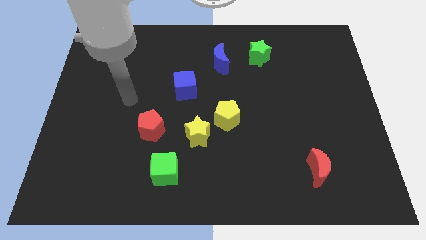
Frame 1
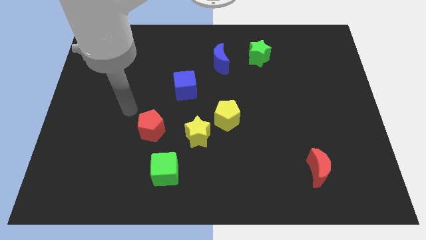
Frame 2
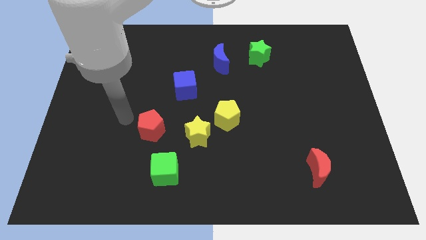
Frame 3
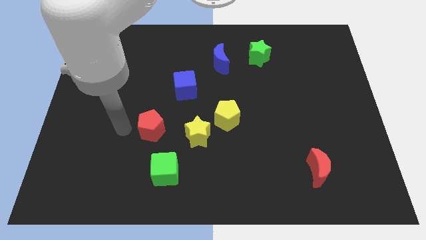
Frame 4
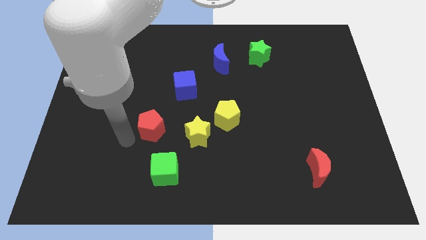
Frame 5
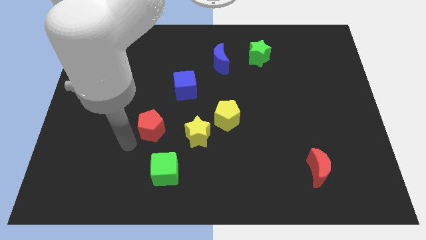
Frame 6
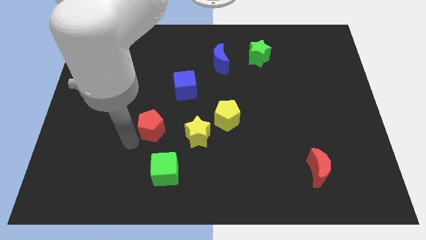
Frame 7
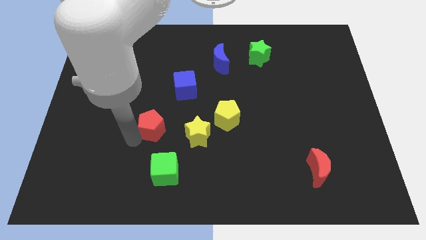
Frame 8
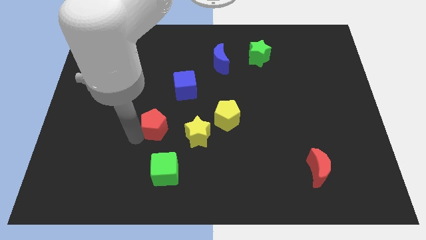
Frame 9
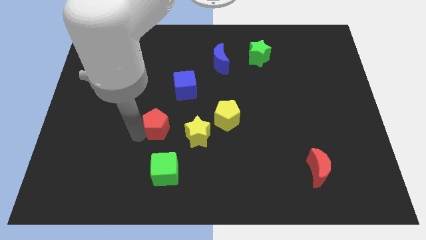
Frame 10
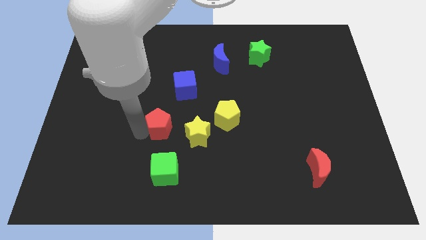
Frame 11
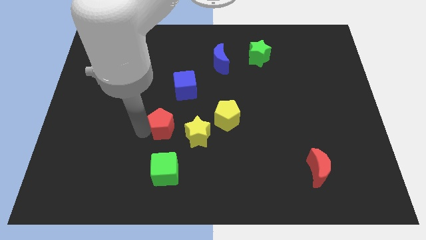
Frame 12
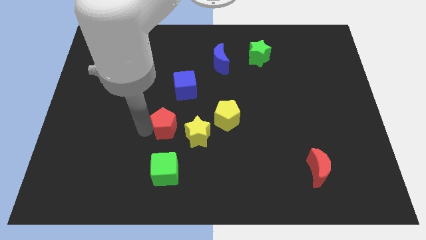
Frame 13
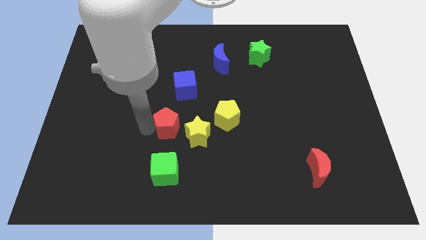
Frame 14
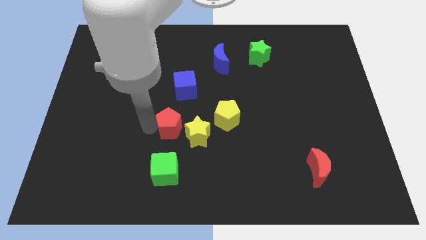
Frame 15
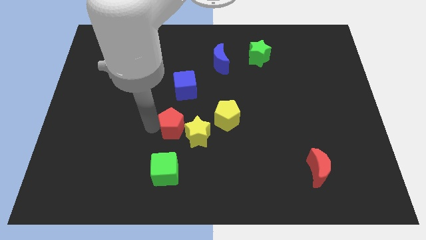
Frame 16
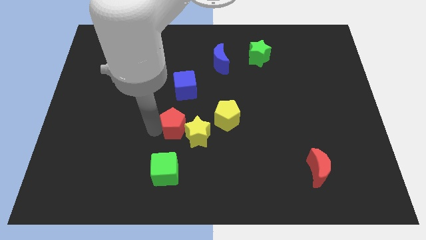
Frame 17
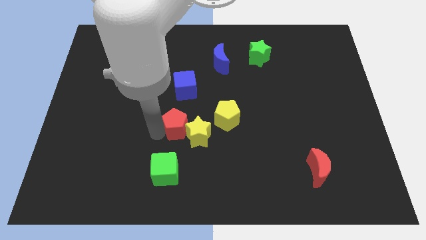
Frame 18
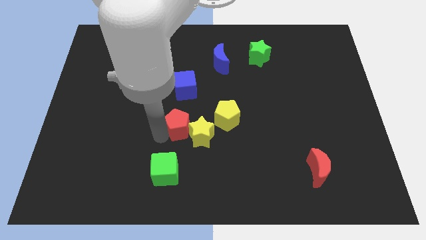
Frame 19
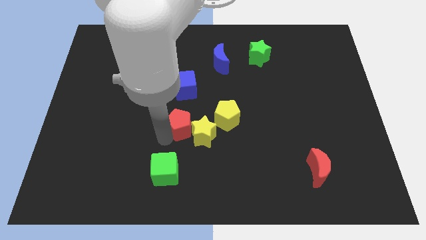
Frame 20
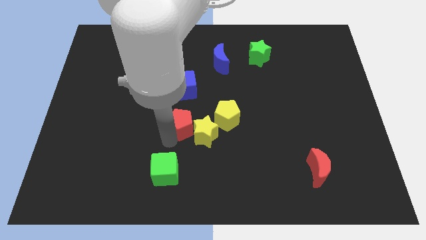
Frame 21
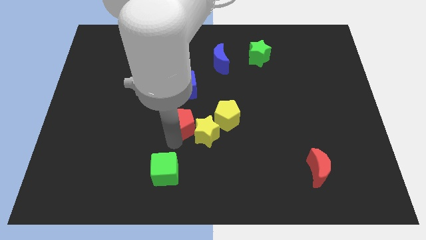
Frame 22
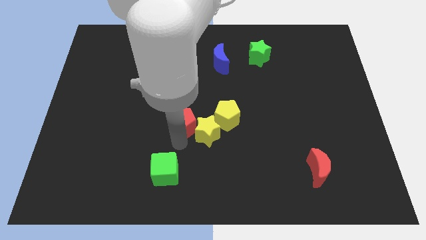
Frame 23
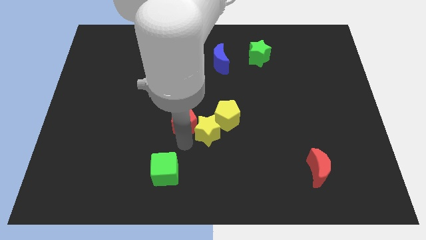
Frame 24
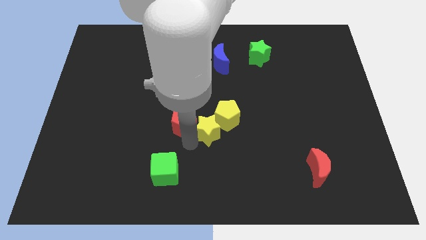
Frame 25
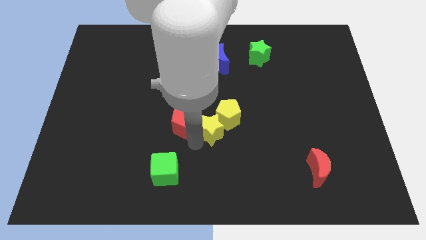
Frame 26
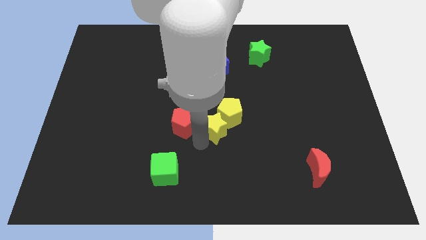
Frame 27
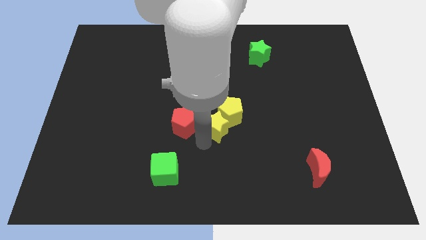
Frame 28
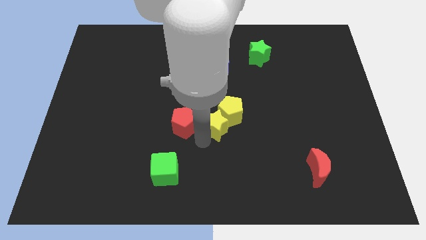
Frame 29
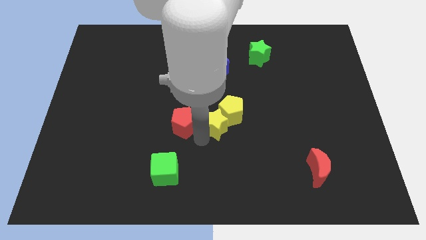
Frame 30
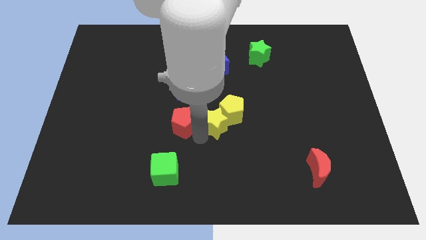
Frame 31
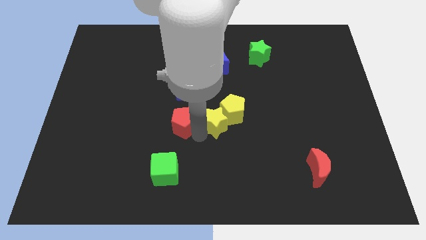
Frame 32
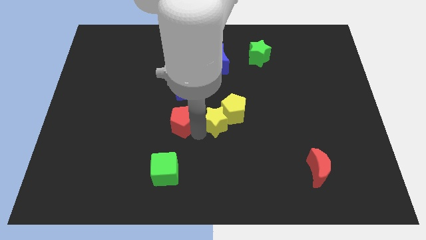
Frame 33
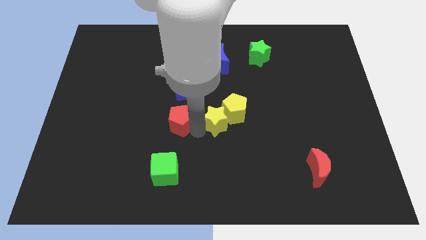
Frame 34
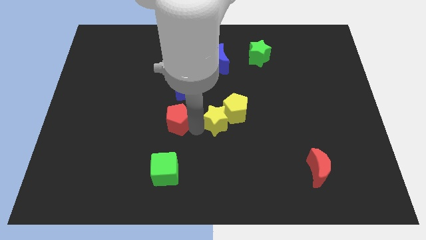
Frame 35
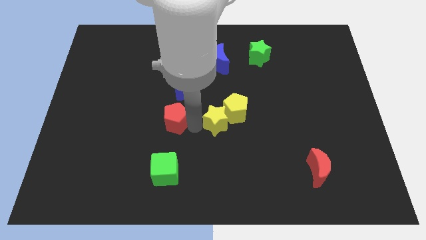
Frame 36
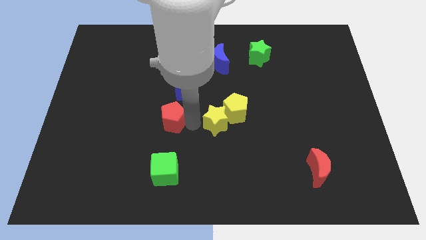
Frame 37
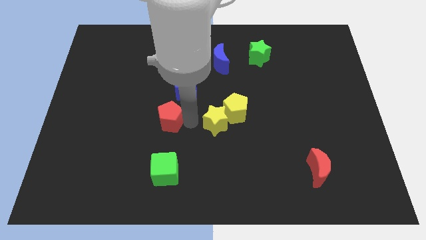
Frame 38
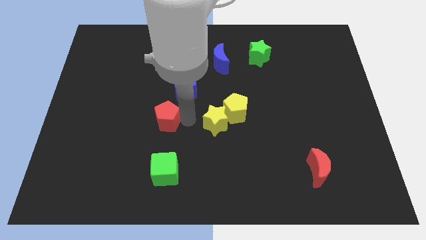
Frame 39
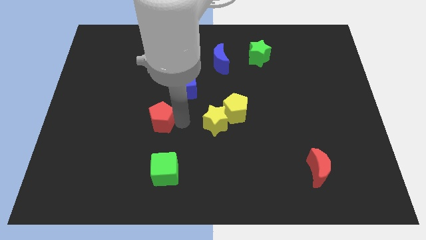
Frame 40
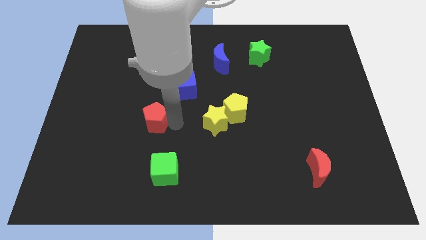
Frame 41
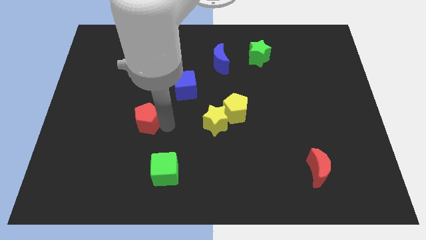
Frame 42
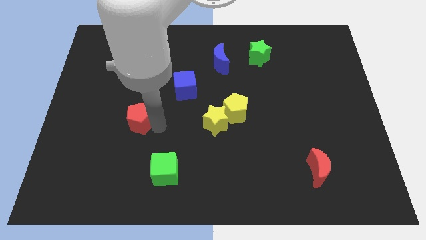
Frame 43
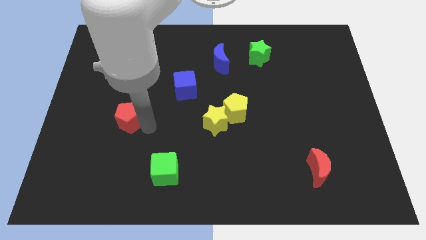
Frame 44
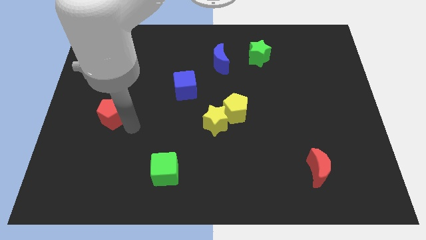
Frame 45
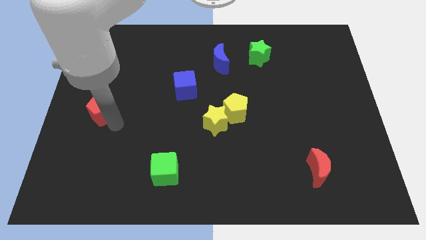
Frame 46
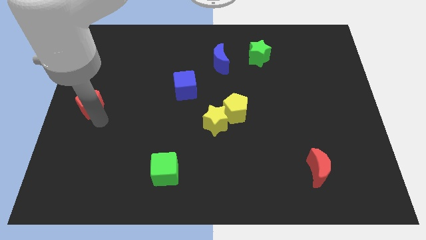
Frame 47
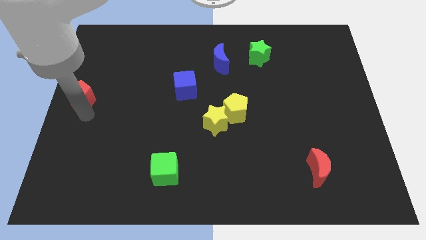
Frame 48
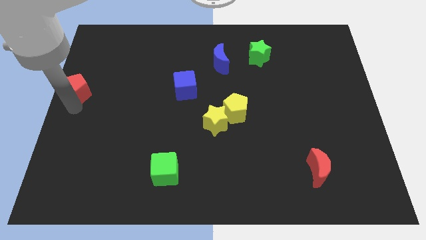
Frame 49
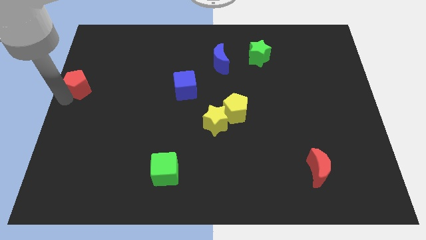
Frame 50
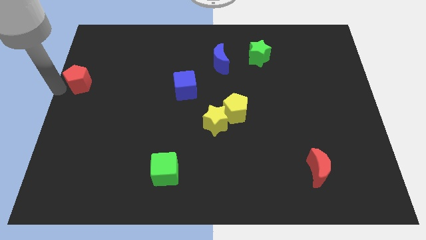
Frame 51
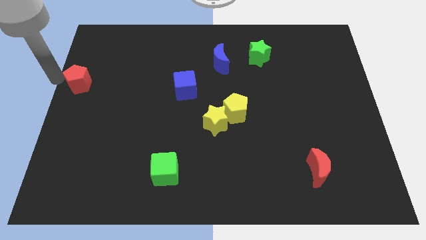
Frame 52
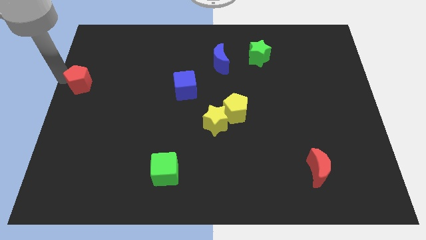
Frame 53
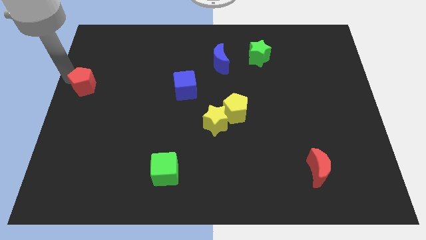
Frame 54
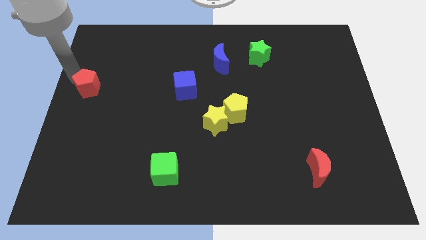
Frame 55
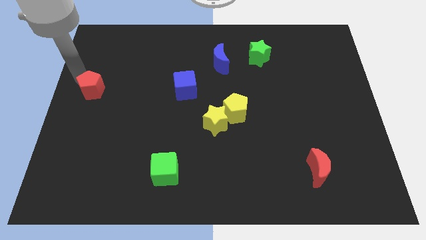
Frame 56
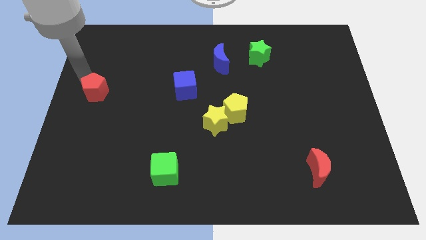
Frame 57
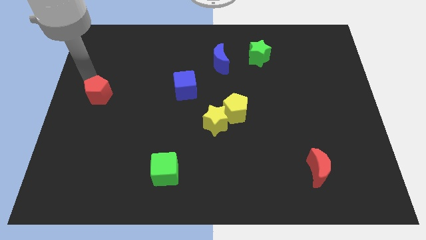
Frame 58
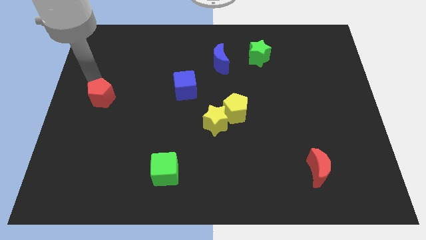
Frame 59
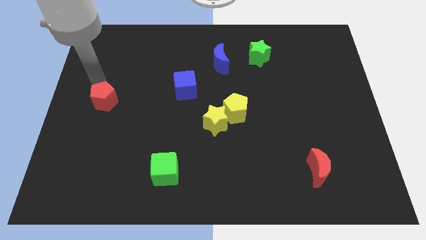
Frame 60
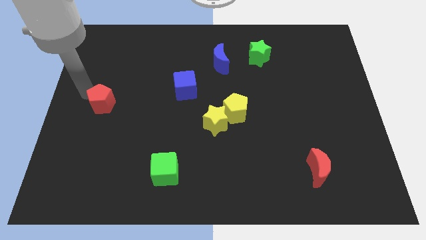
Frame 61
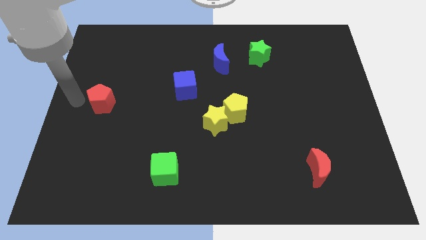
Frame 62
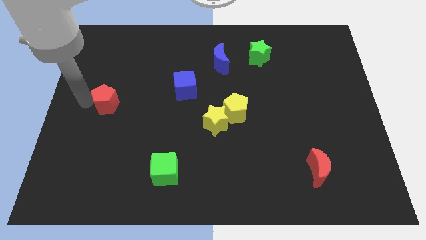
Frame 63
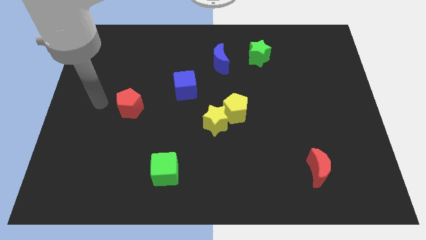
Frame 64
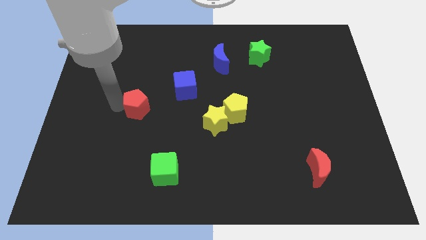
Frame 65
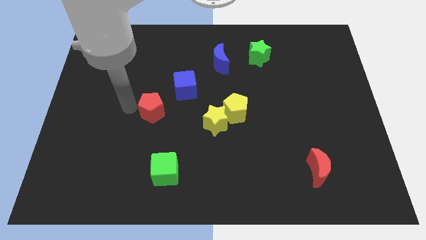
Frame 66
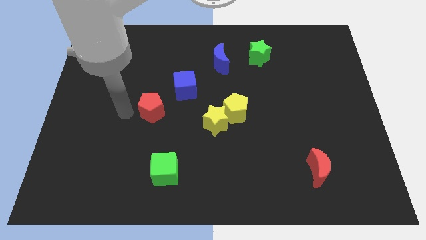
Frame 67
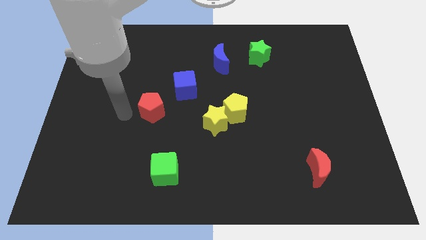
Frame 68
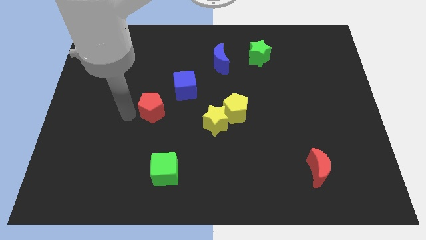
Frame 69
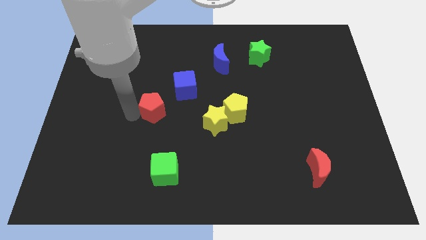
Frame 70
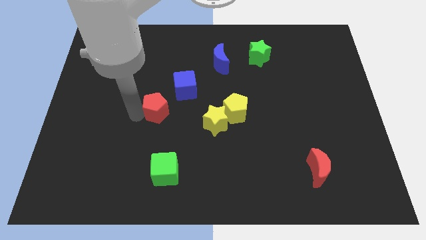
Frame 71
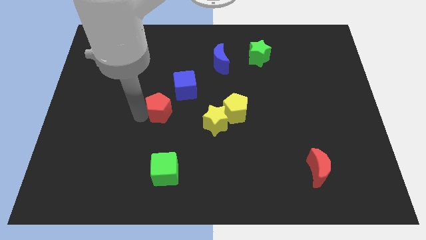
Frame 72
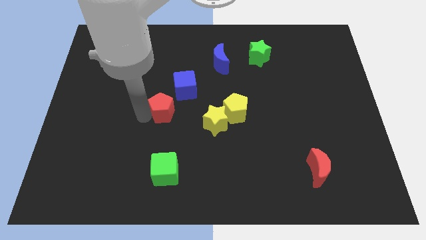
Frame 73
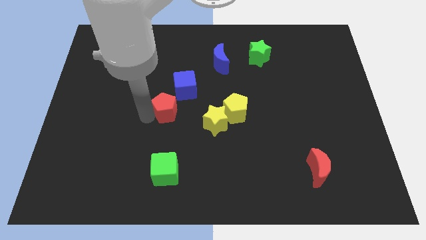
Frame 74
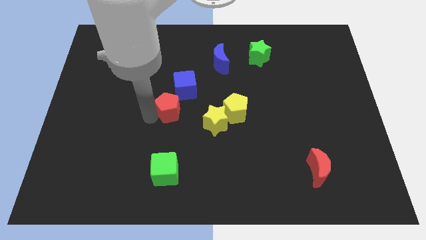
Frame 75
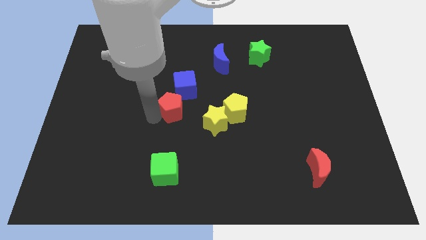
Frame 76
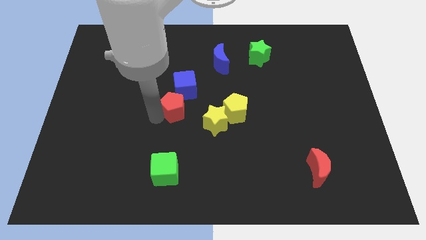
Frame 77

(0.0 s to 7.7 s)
push the red pentagon a little bit diagonally up and right

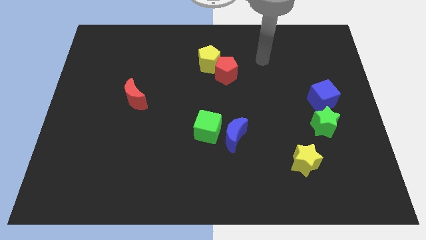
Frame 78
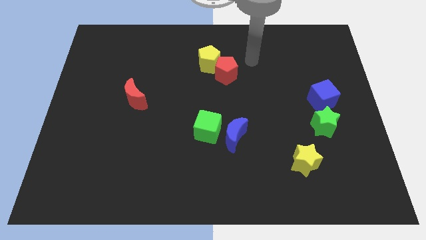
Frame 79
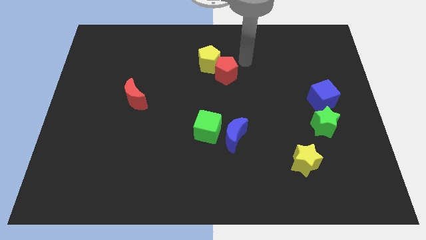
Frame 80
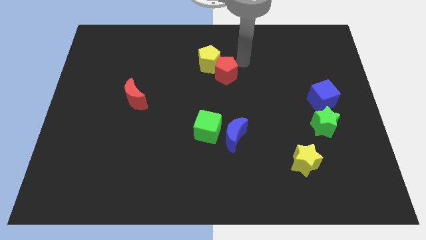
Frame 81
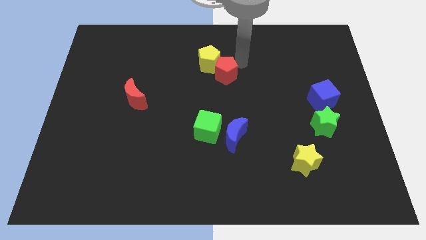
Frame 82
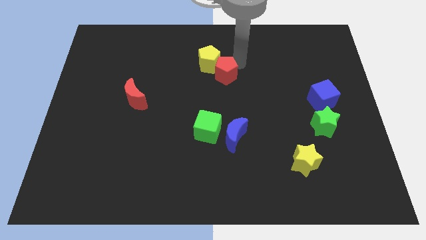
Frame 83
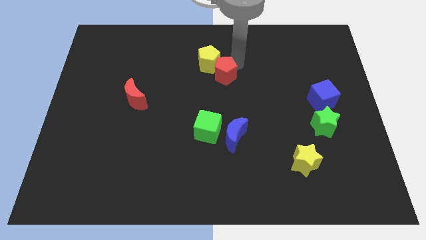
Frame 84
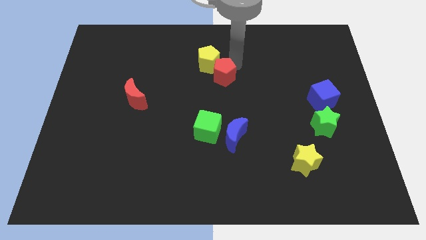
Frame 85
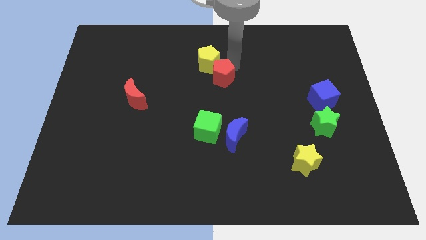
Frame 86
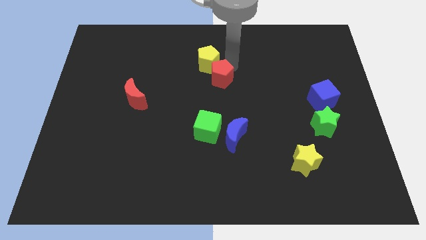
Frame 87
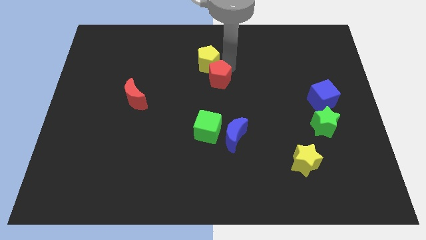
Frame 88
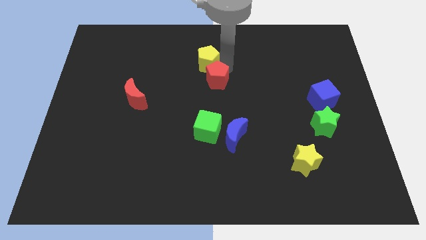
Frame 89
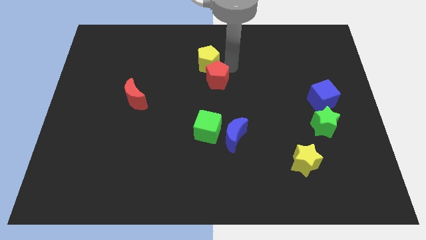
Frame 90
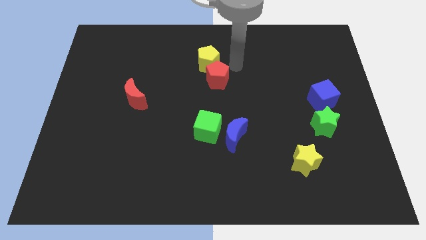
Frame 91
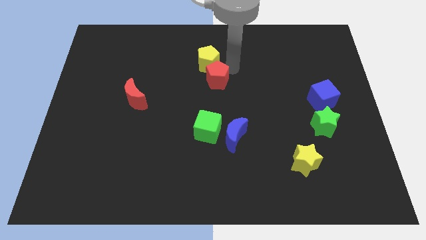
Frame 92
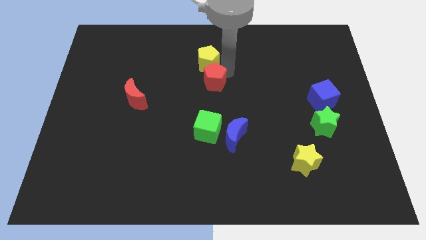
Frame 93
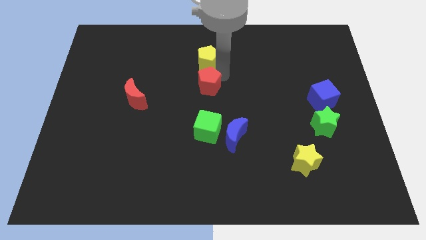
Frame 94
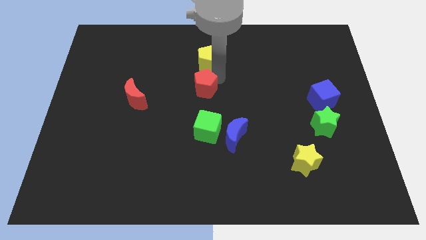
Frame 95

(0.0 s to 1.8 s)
move the red pentagon a little bit down and left diagonally
